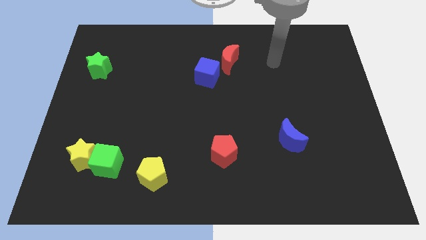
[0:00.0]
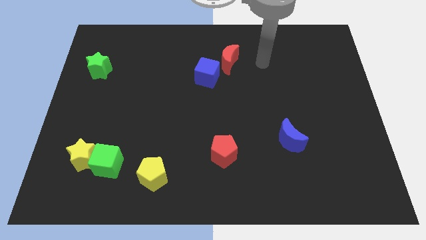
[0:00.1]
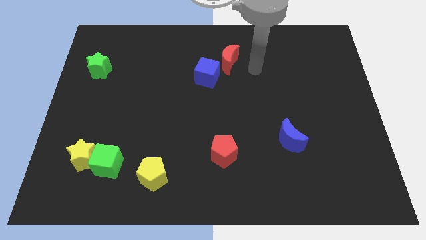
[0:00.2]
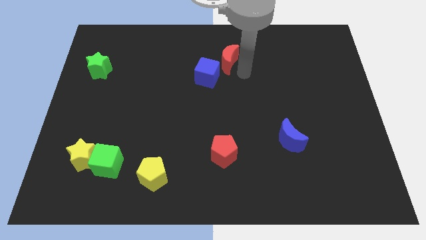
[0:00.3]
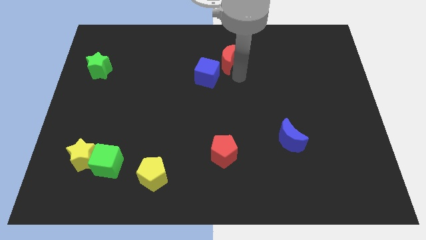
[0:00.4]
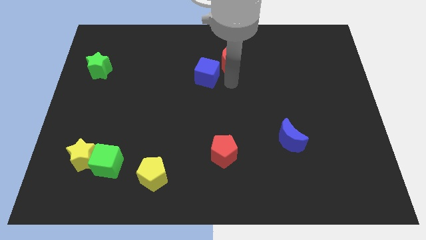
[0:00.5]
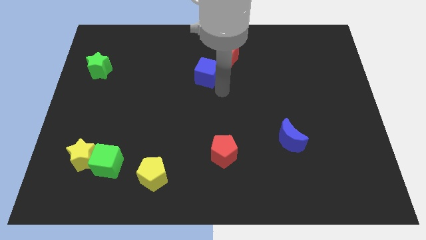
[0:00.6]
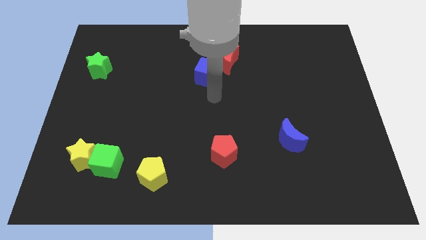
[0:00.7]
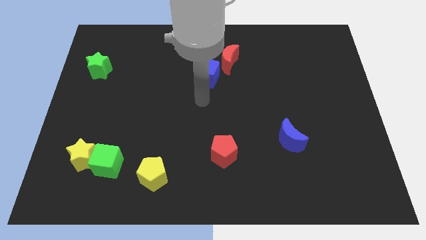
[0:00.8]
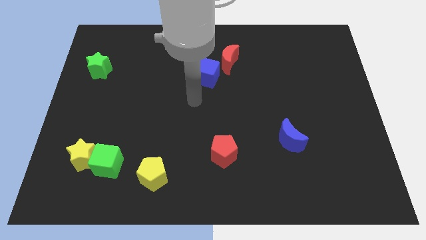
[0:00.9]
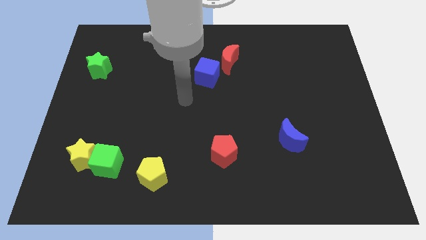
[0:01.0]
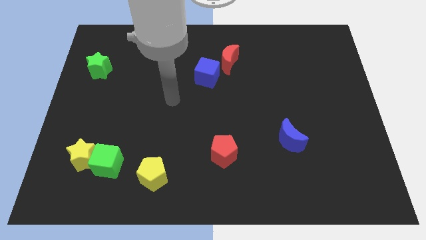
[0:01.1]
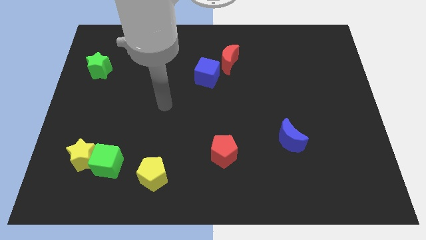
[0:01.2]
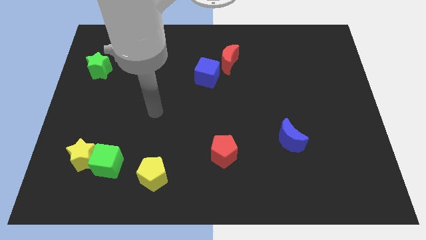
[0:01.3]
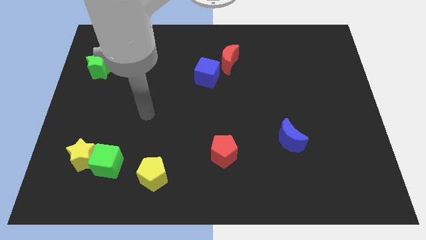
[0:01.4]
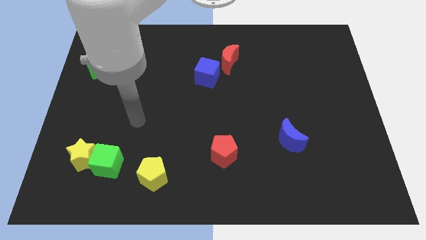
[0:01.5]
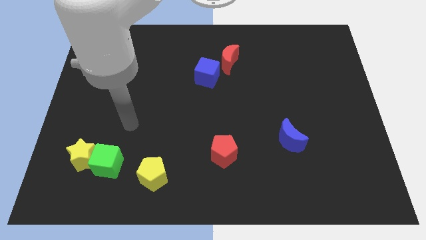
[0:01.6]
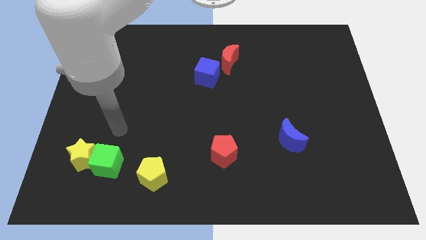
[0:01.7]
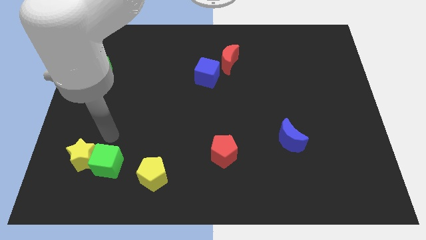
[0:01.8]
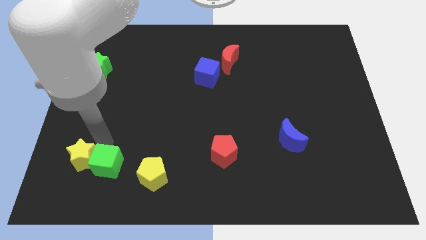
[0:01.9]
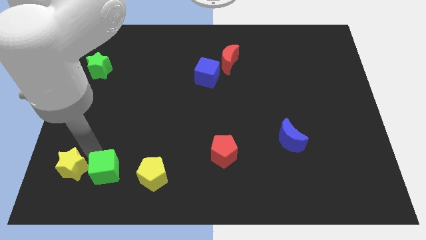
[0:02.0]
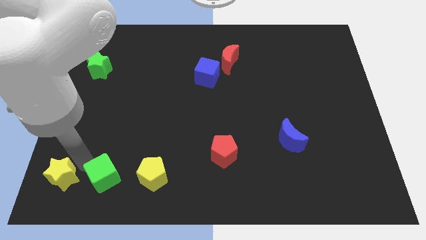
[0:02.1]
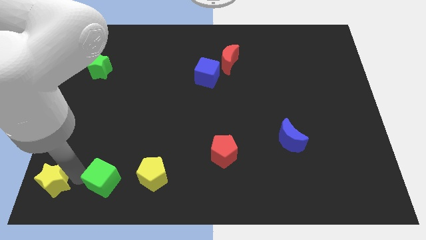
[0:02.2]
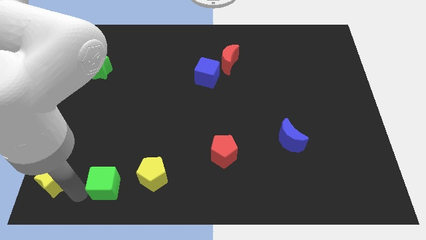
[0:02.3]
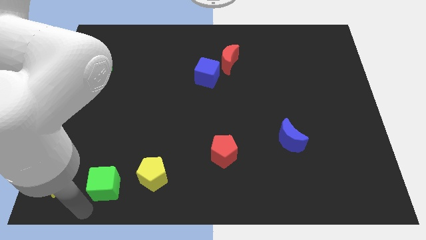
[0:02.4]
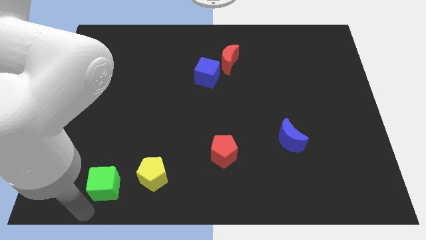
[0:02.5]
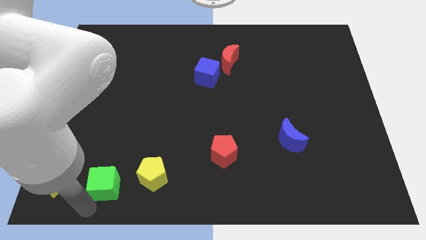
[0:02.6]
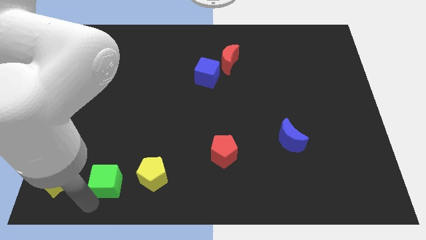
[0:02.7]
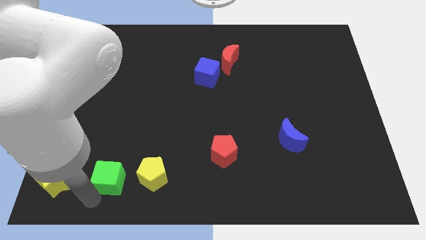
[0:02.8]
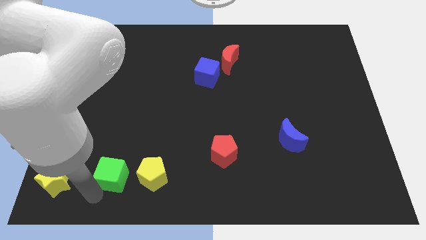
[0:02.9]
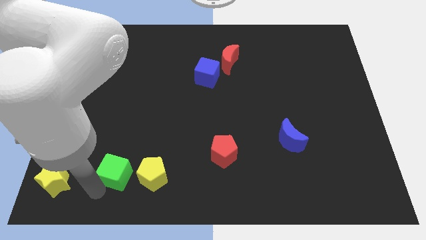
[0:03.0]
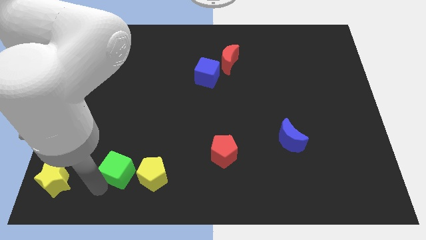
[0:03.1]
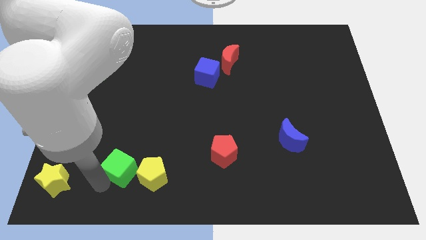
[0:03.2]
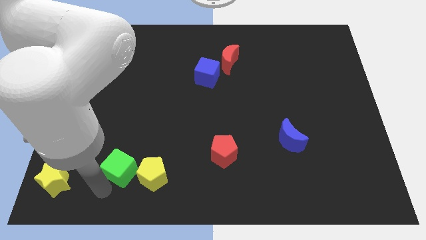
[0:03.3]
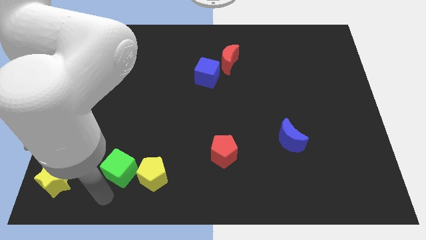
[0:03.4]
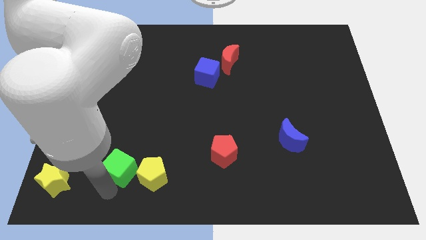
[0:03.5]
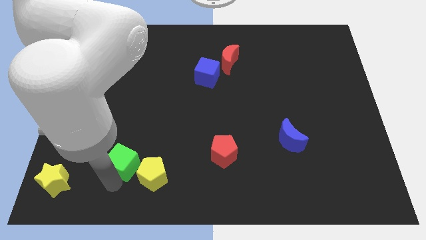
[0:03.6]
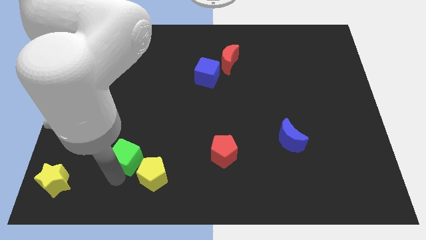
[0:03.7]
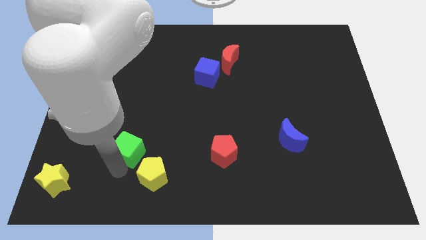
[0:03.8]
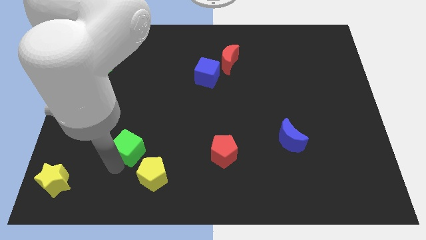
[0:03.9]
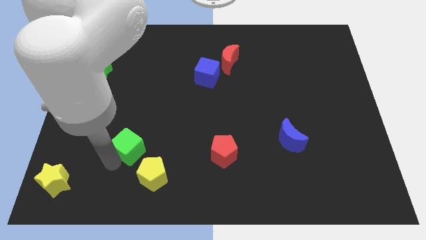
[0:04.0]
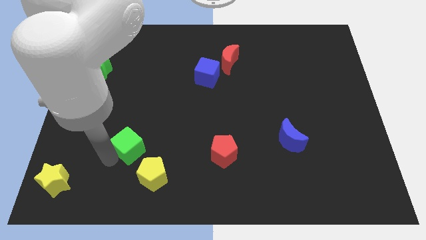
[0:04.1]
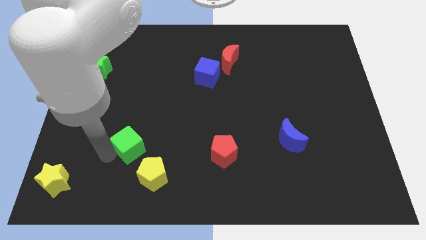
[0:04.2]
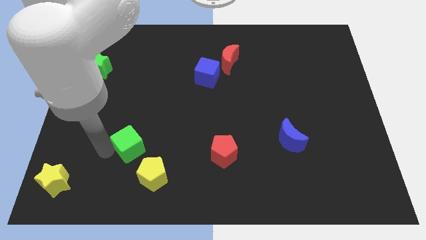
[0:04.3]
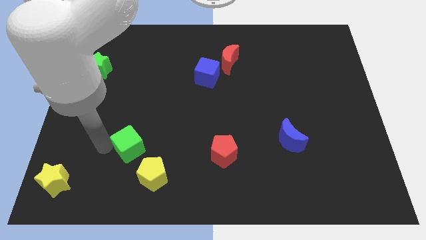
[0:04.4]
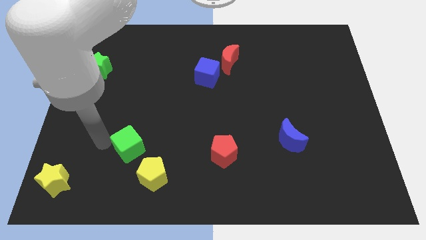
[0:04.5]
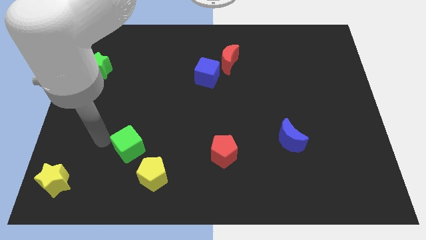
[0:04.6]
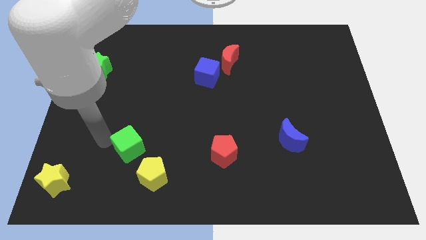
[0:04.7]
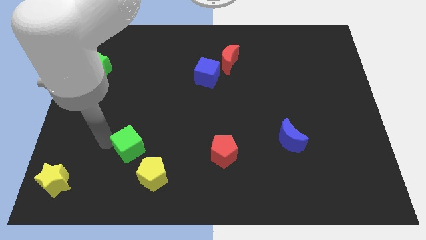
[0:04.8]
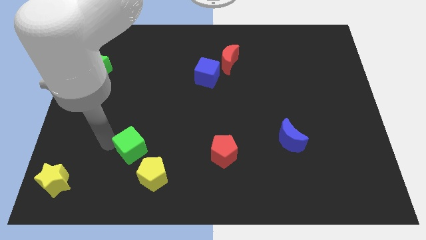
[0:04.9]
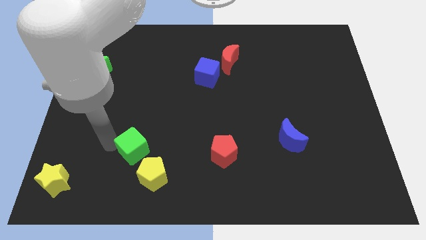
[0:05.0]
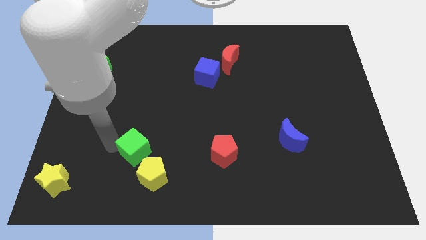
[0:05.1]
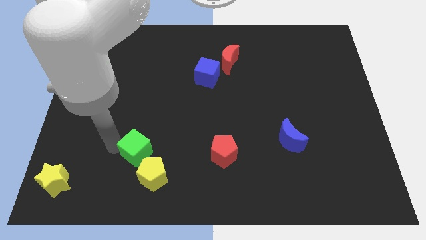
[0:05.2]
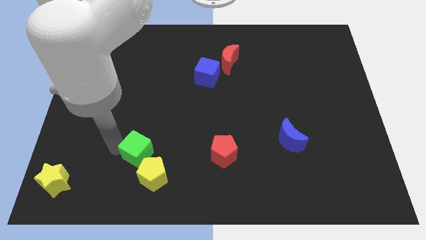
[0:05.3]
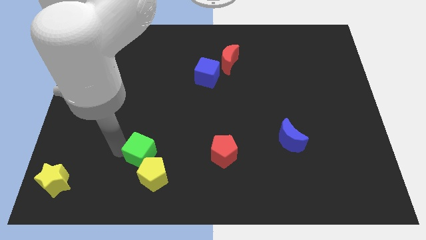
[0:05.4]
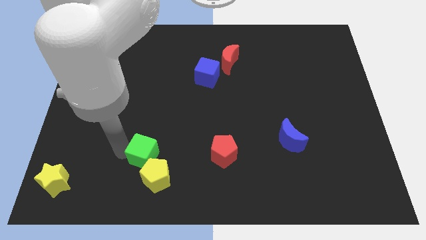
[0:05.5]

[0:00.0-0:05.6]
move the green cube right a little bit

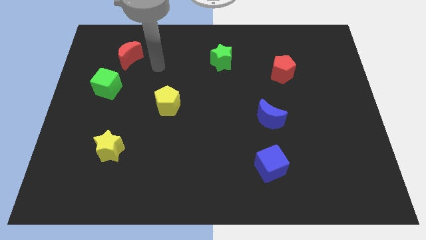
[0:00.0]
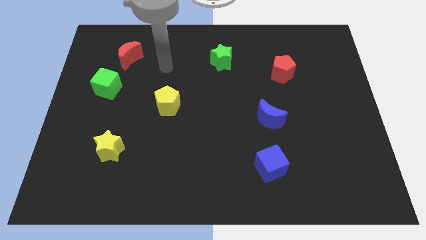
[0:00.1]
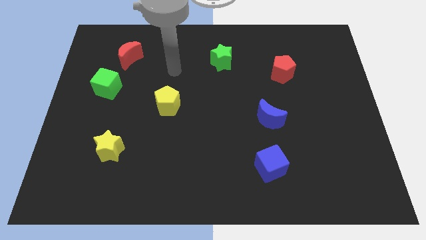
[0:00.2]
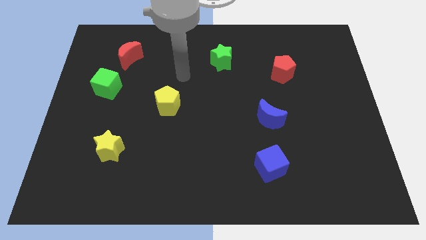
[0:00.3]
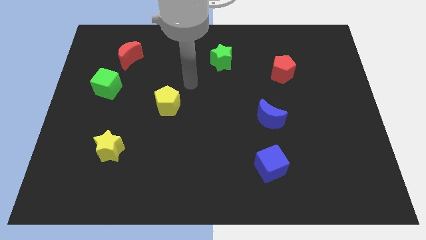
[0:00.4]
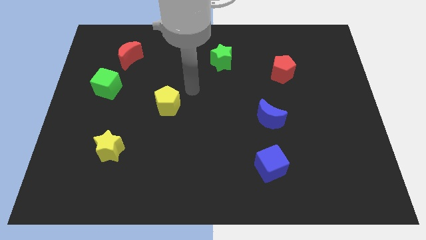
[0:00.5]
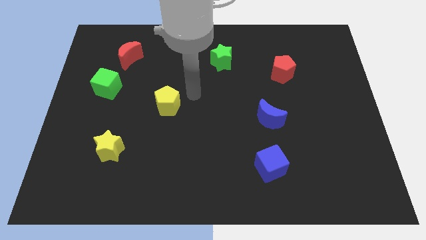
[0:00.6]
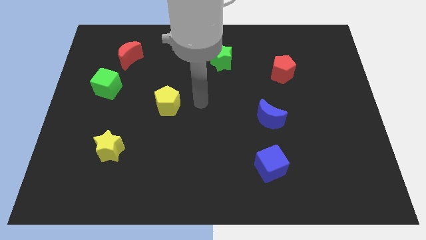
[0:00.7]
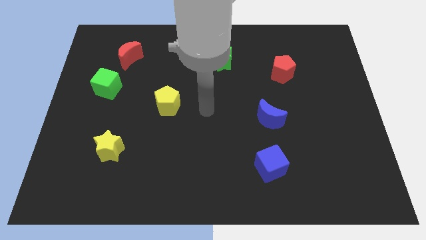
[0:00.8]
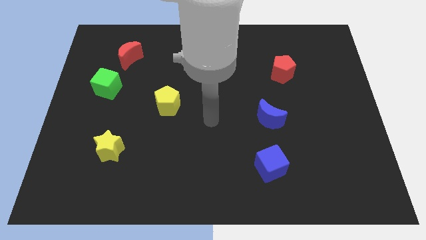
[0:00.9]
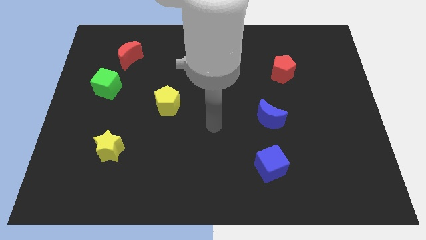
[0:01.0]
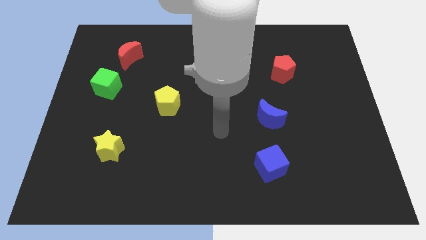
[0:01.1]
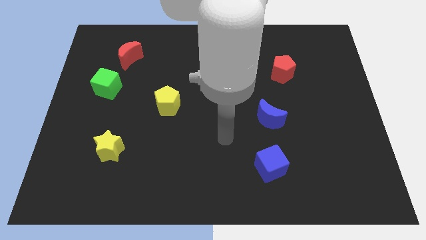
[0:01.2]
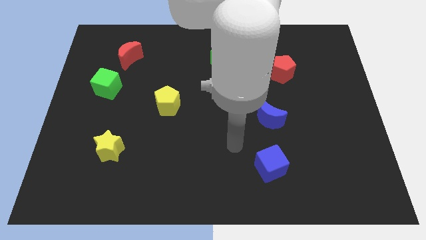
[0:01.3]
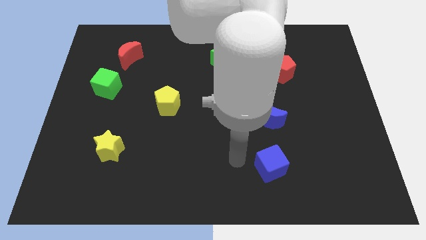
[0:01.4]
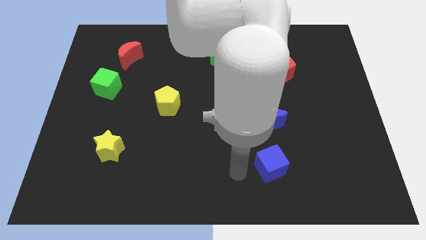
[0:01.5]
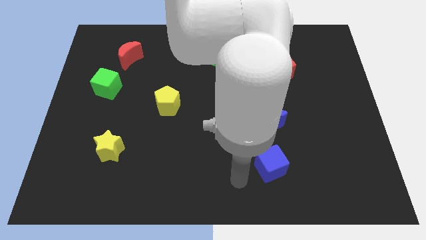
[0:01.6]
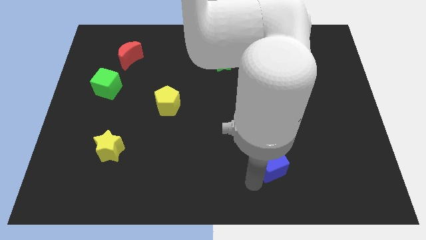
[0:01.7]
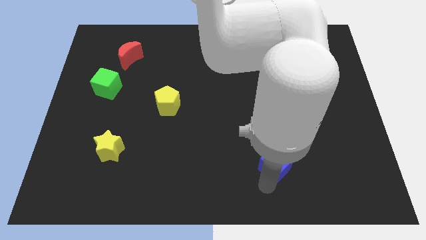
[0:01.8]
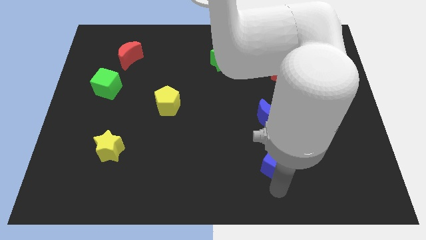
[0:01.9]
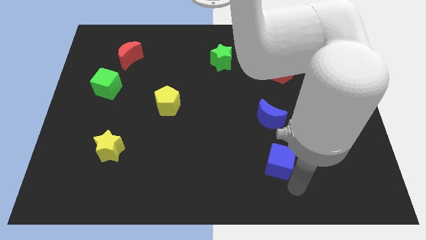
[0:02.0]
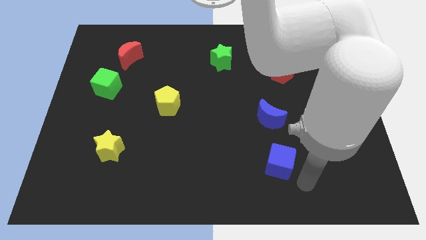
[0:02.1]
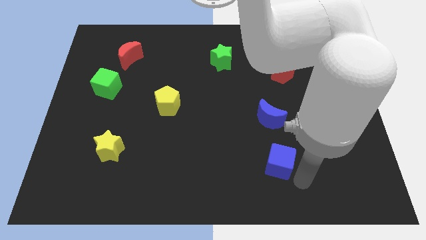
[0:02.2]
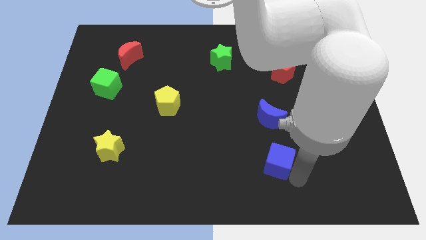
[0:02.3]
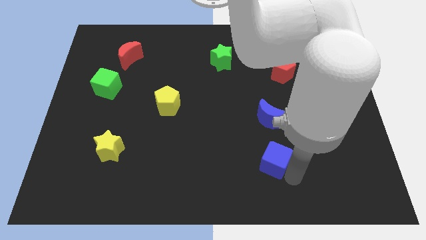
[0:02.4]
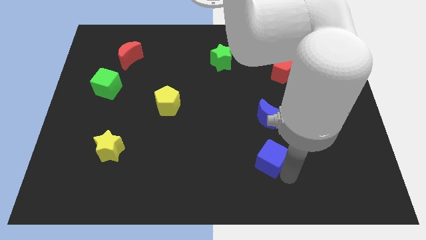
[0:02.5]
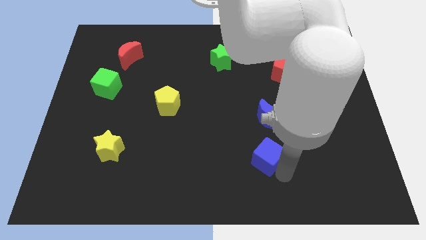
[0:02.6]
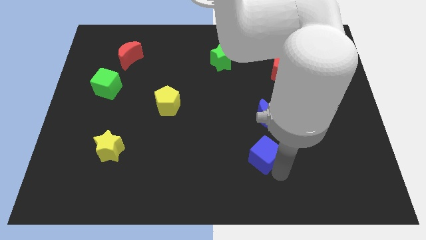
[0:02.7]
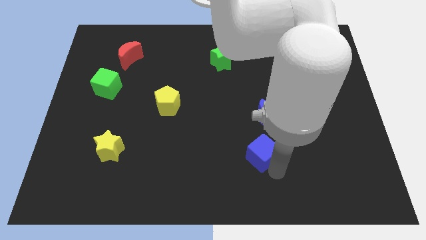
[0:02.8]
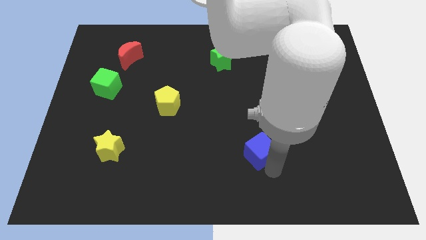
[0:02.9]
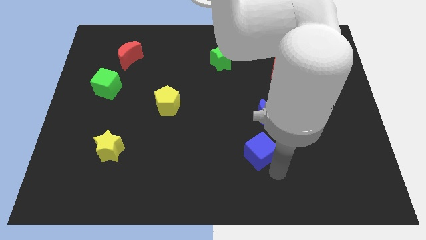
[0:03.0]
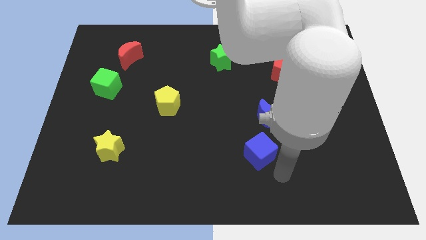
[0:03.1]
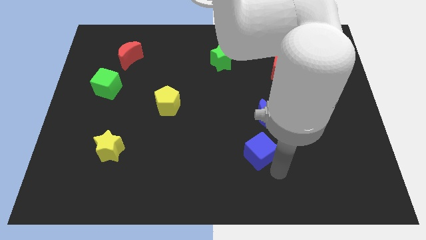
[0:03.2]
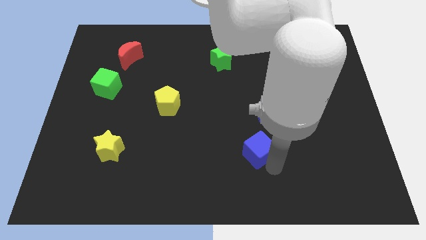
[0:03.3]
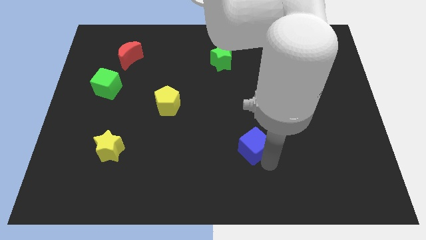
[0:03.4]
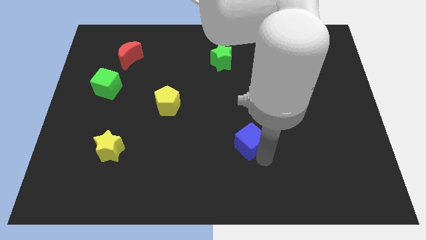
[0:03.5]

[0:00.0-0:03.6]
push the blue cube upwards and left a little
